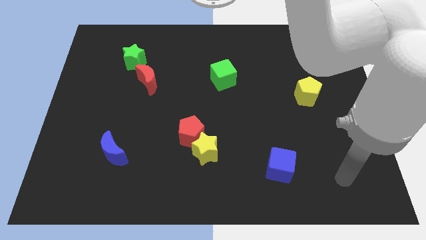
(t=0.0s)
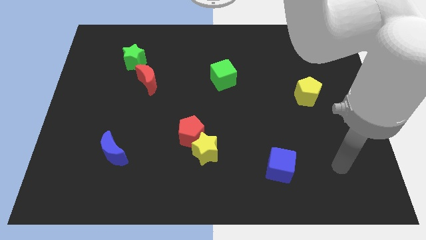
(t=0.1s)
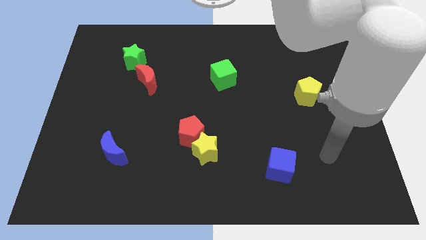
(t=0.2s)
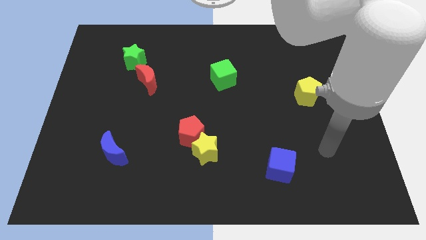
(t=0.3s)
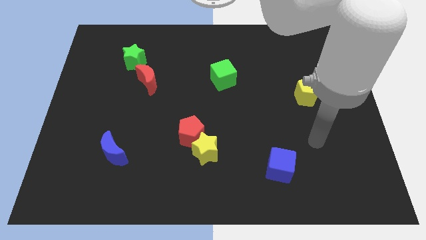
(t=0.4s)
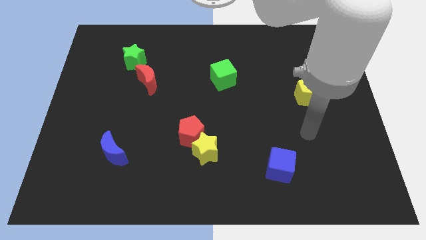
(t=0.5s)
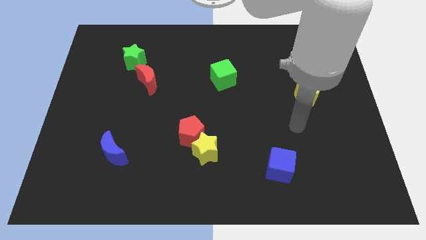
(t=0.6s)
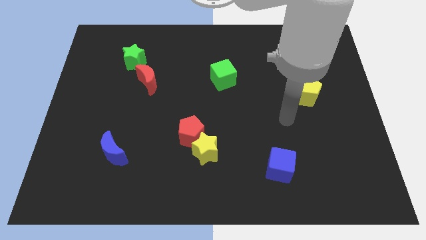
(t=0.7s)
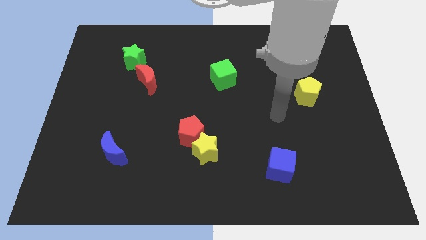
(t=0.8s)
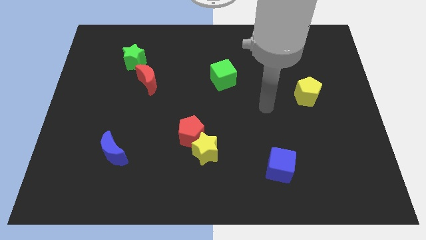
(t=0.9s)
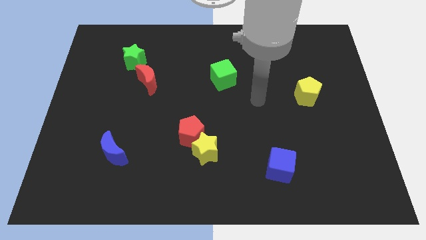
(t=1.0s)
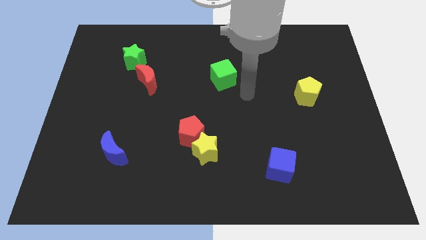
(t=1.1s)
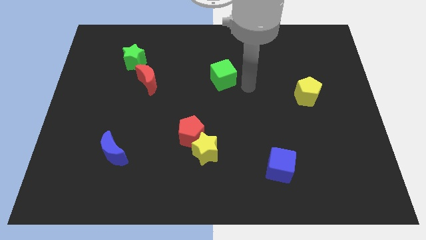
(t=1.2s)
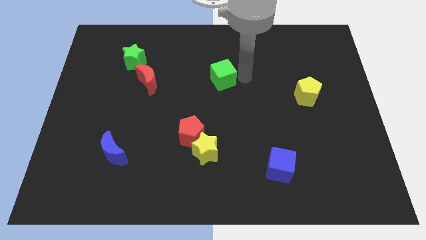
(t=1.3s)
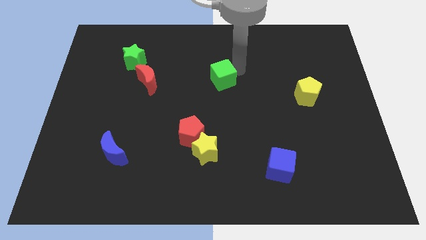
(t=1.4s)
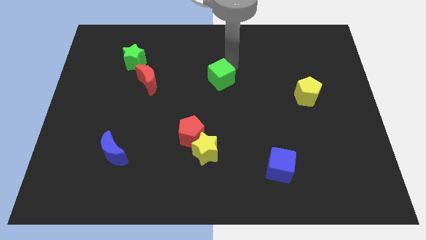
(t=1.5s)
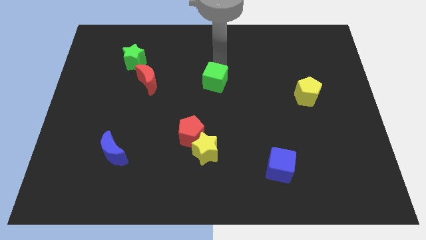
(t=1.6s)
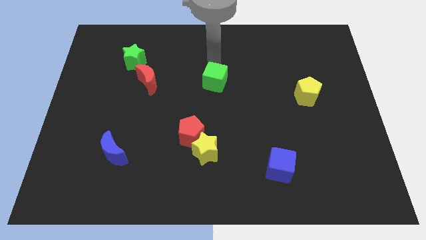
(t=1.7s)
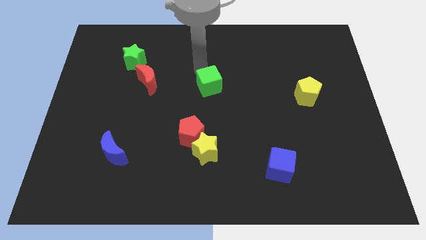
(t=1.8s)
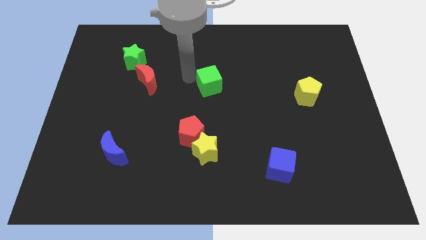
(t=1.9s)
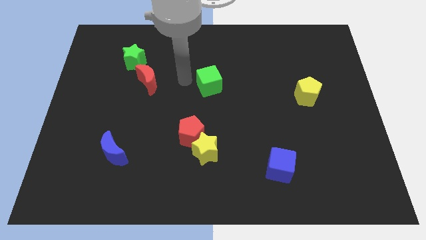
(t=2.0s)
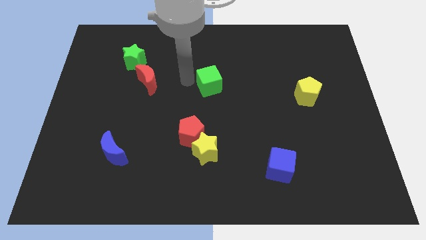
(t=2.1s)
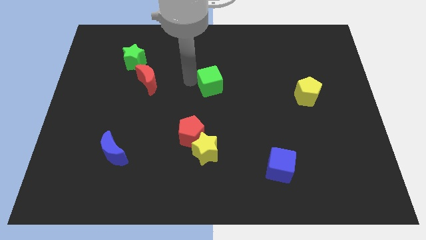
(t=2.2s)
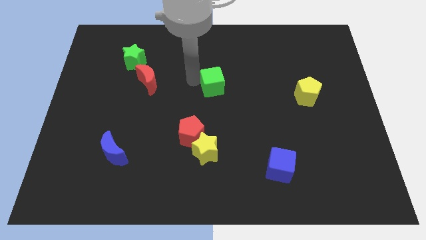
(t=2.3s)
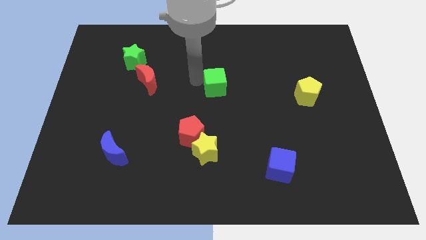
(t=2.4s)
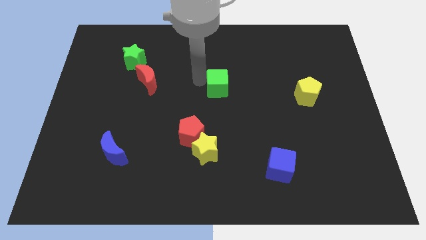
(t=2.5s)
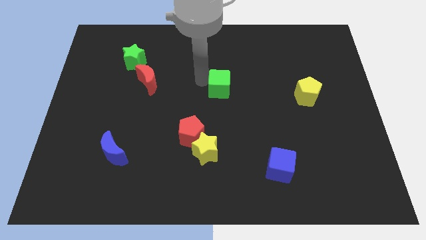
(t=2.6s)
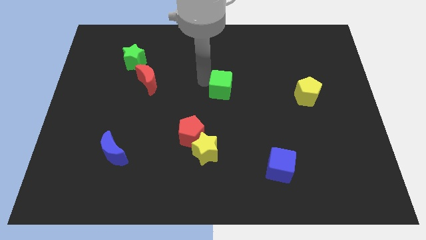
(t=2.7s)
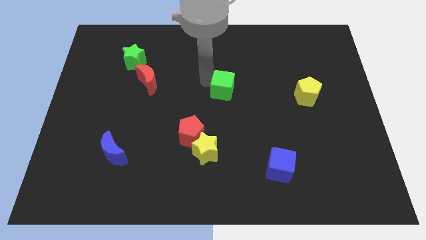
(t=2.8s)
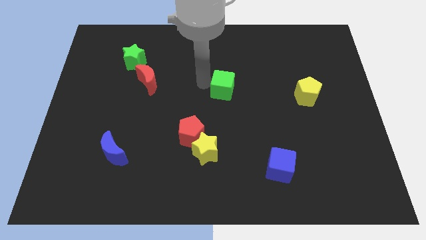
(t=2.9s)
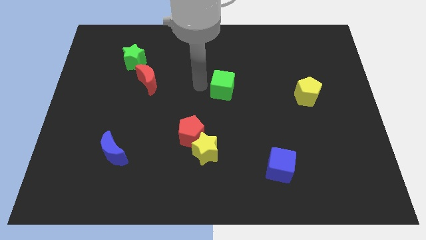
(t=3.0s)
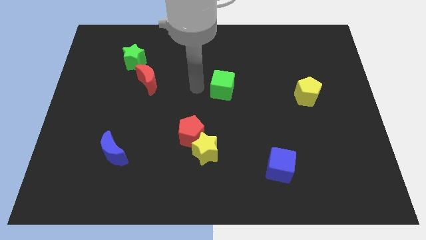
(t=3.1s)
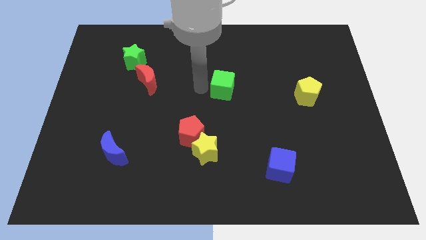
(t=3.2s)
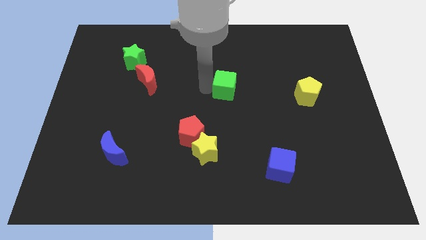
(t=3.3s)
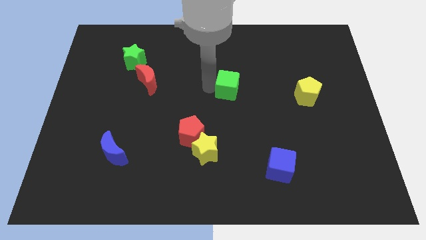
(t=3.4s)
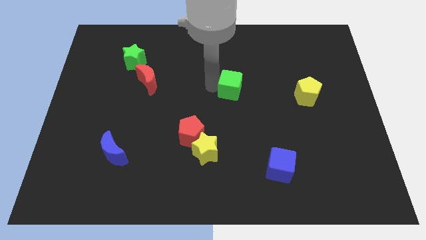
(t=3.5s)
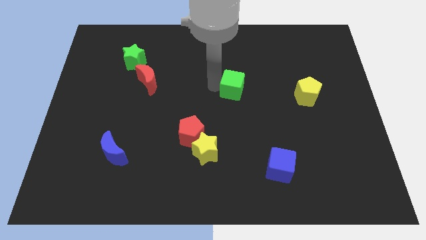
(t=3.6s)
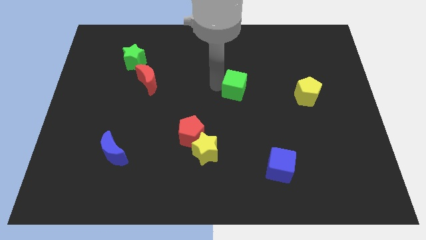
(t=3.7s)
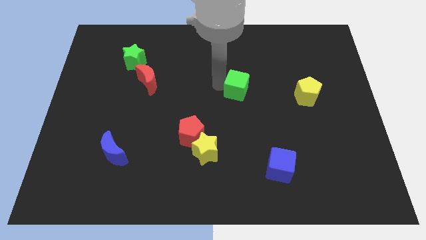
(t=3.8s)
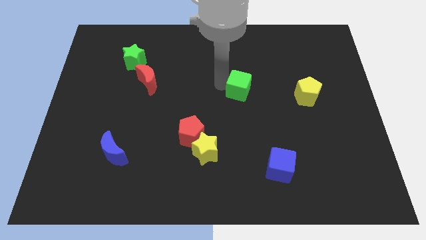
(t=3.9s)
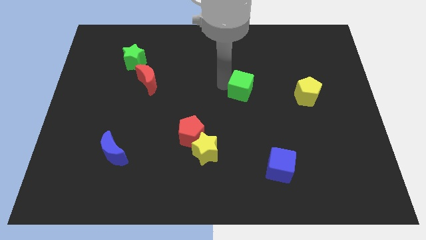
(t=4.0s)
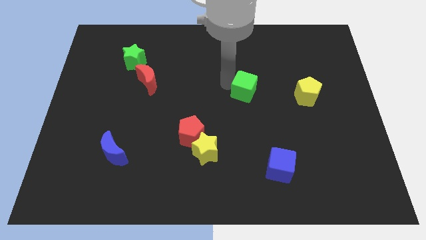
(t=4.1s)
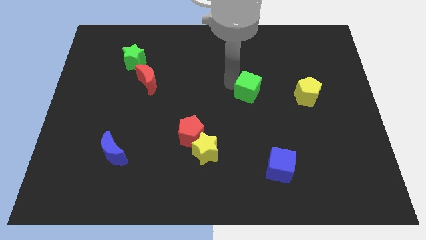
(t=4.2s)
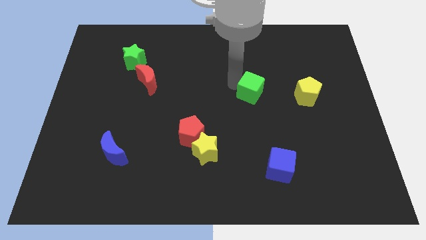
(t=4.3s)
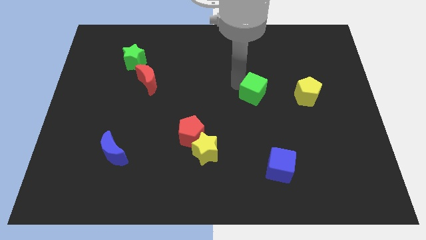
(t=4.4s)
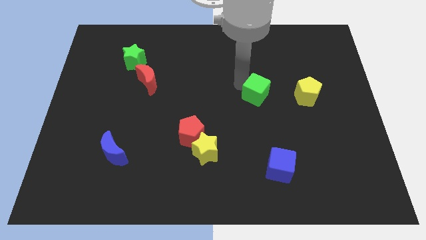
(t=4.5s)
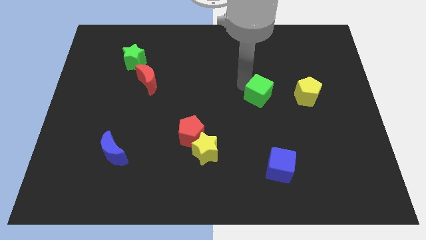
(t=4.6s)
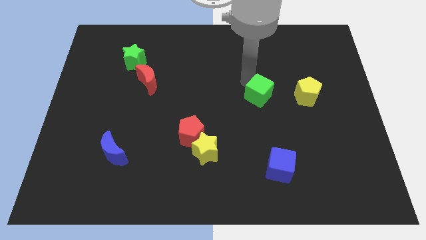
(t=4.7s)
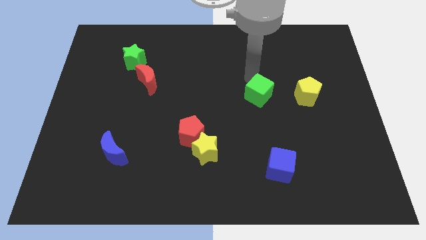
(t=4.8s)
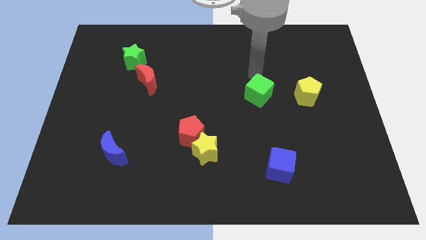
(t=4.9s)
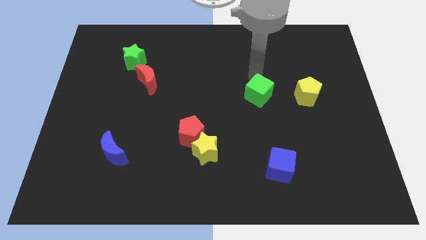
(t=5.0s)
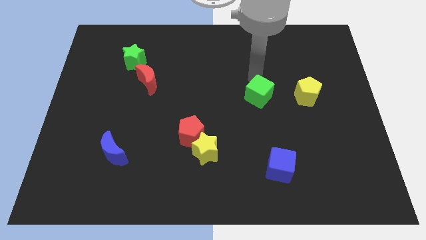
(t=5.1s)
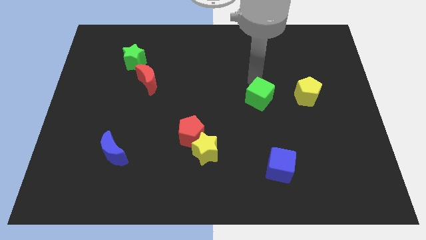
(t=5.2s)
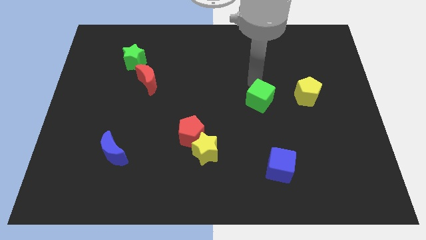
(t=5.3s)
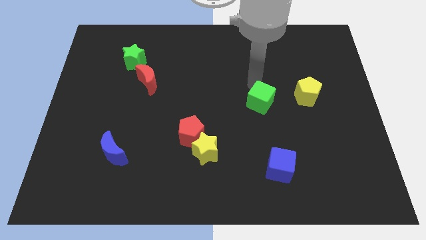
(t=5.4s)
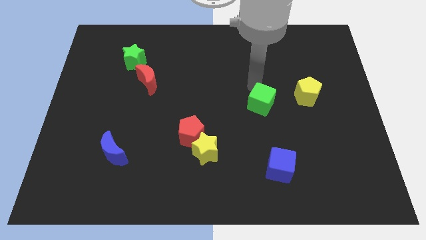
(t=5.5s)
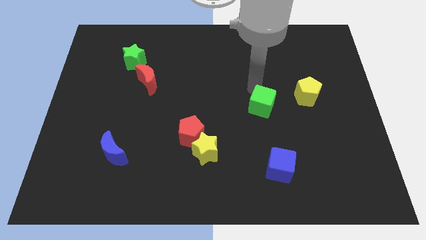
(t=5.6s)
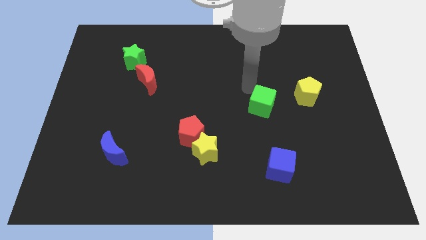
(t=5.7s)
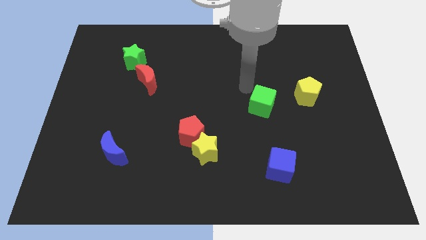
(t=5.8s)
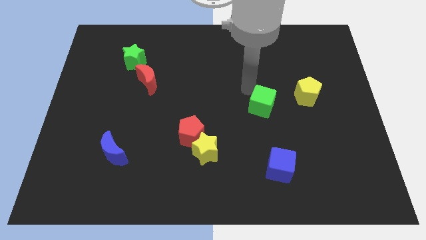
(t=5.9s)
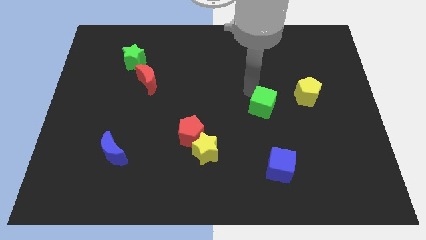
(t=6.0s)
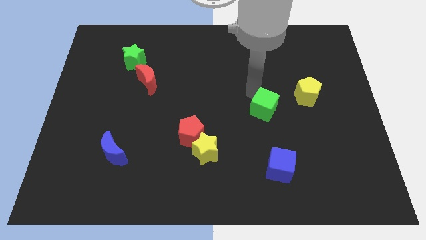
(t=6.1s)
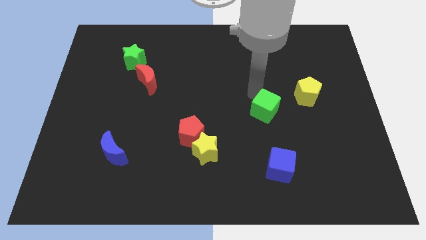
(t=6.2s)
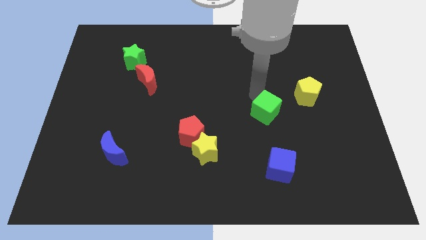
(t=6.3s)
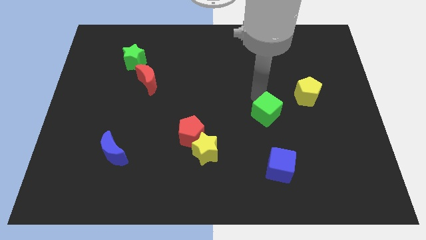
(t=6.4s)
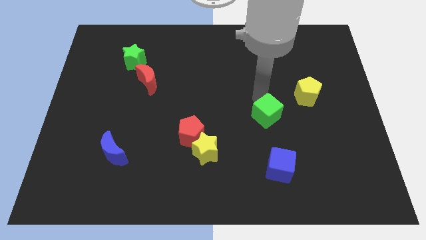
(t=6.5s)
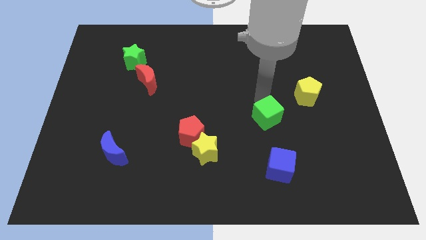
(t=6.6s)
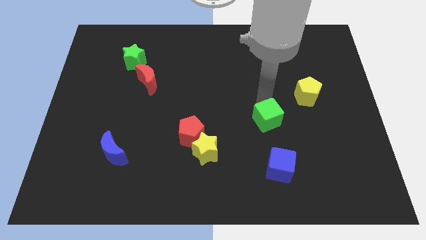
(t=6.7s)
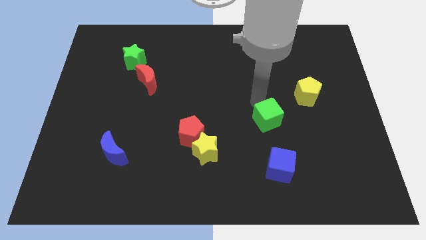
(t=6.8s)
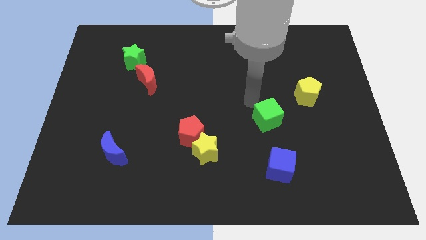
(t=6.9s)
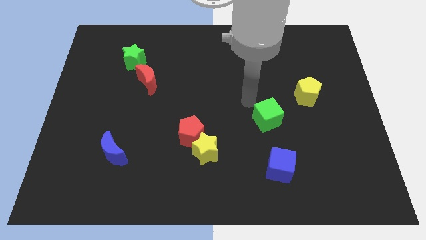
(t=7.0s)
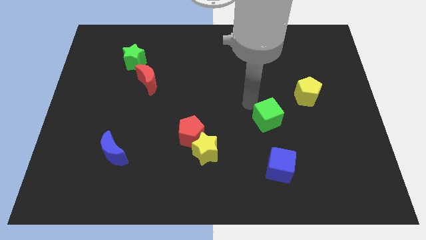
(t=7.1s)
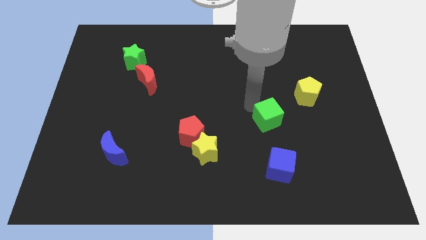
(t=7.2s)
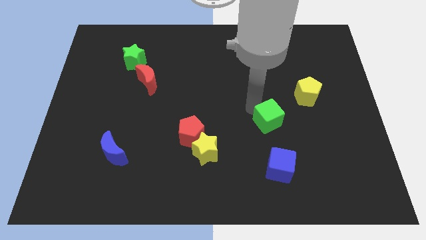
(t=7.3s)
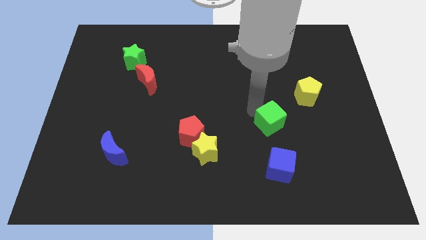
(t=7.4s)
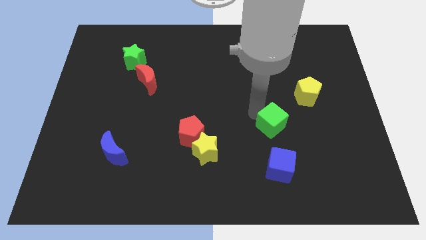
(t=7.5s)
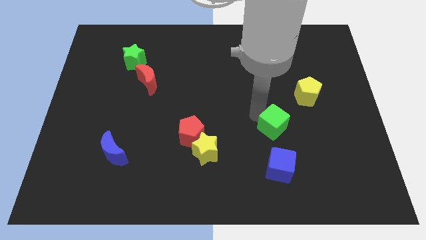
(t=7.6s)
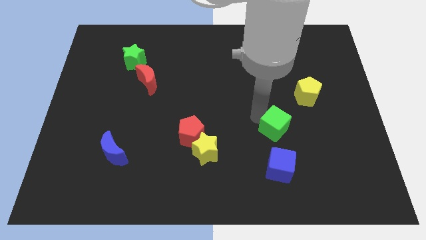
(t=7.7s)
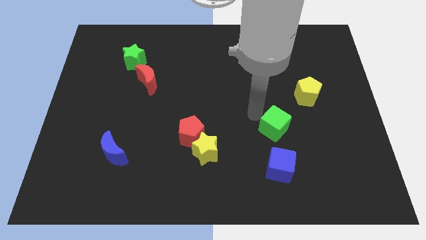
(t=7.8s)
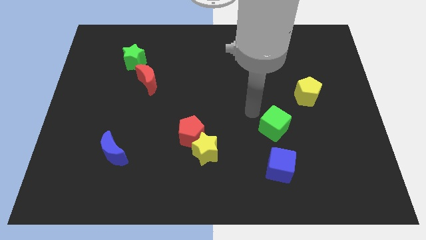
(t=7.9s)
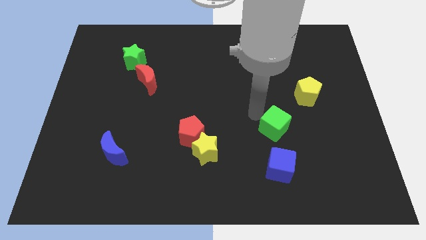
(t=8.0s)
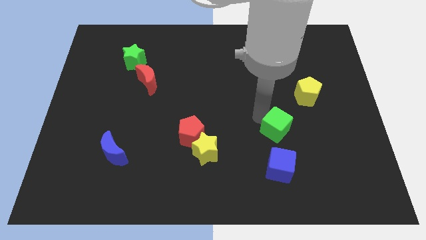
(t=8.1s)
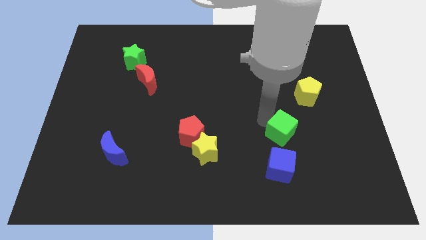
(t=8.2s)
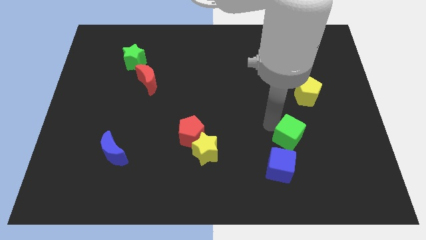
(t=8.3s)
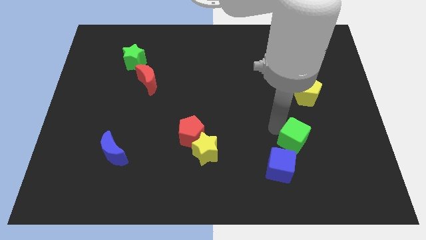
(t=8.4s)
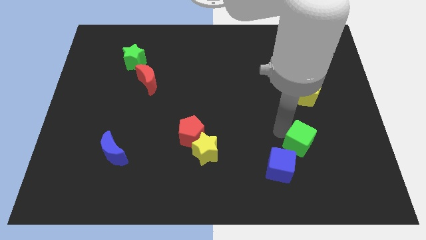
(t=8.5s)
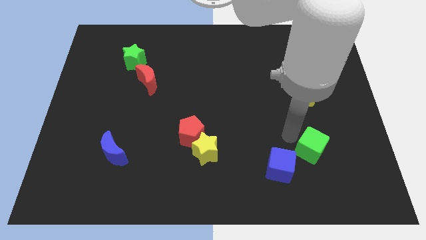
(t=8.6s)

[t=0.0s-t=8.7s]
put the green cube to the right side of the blue cube
